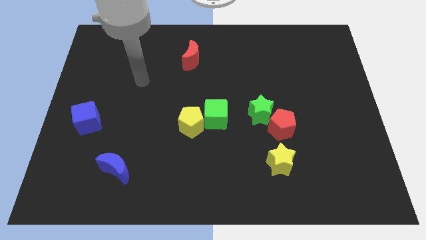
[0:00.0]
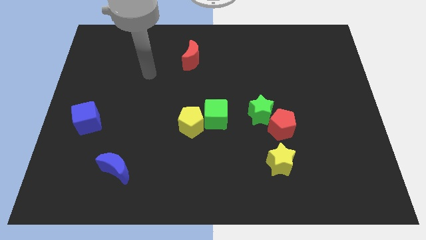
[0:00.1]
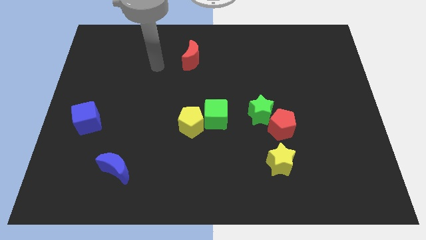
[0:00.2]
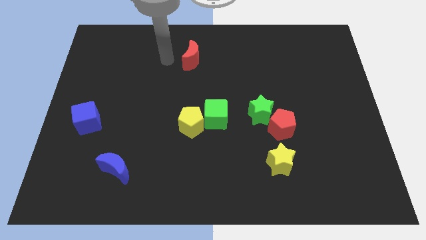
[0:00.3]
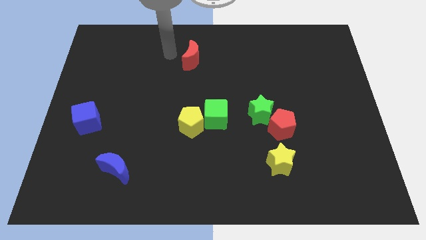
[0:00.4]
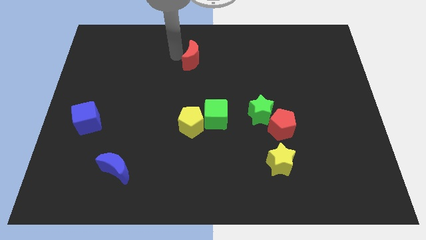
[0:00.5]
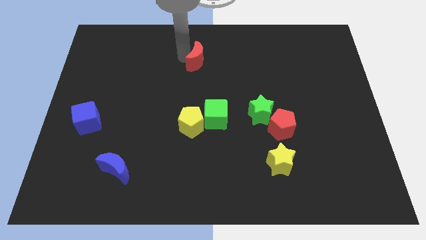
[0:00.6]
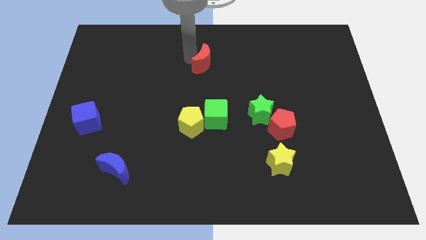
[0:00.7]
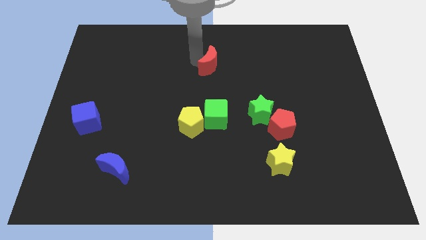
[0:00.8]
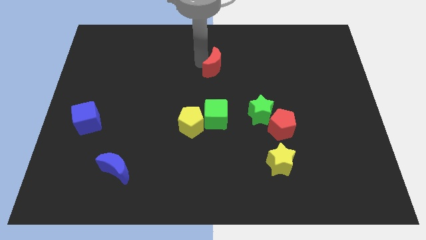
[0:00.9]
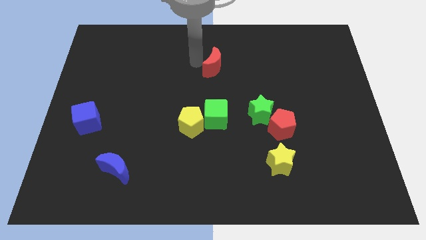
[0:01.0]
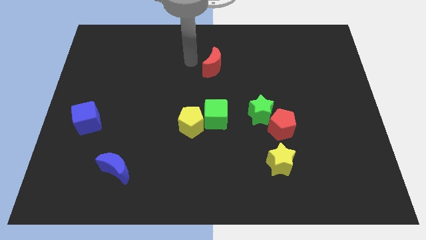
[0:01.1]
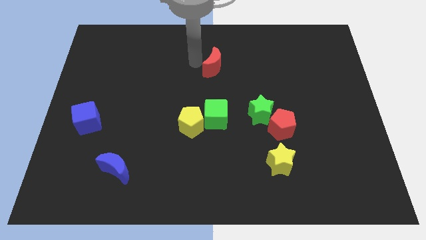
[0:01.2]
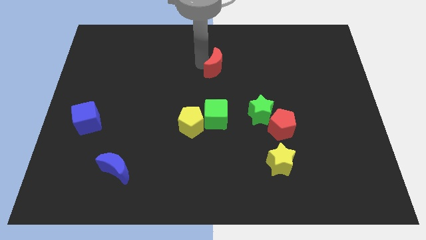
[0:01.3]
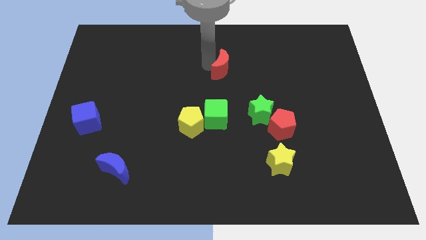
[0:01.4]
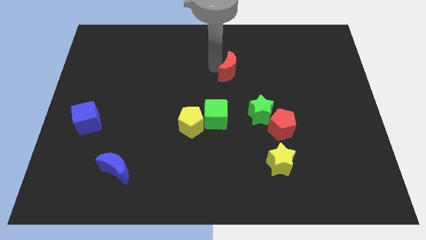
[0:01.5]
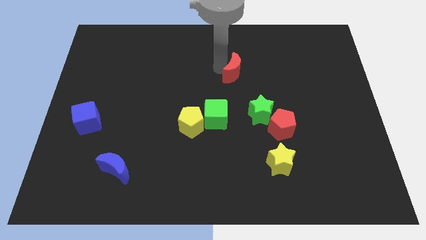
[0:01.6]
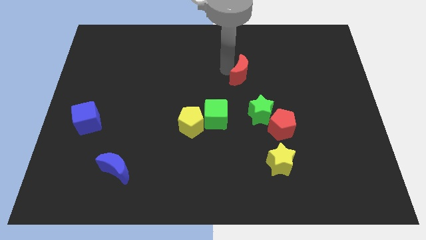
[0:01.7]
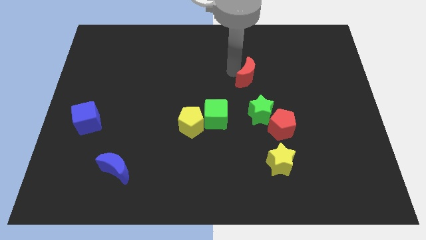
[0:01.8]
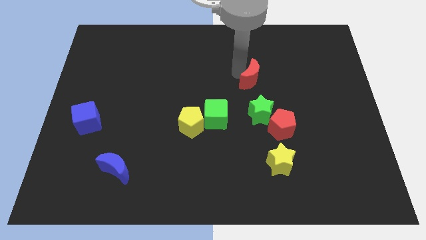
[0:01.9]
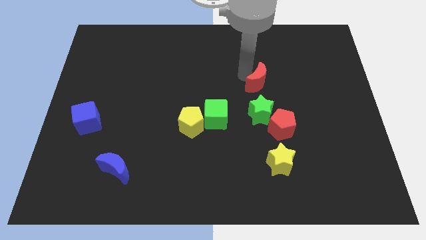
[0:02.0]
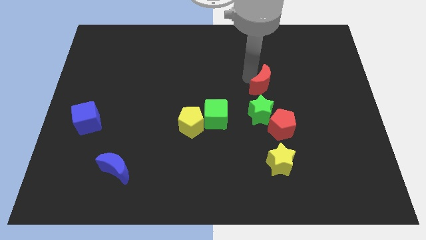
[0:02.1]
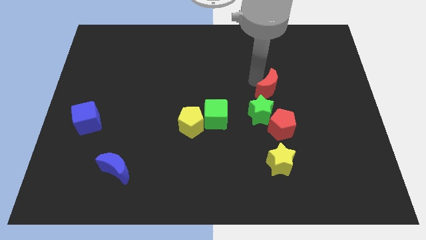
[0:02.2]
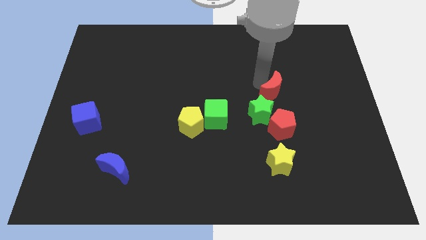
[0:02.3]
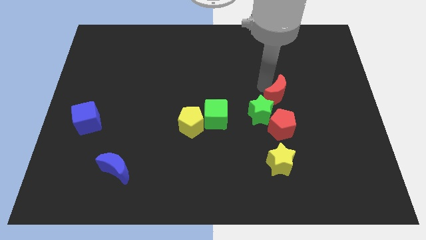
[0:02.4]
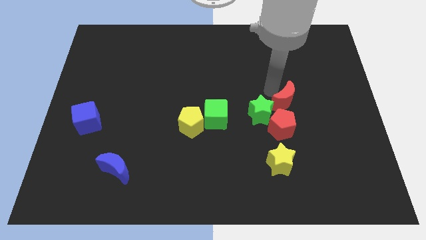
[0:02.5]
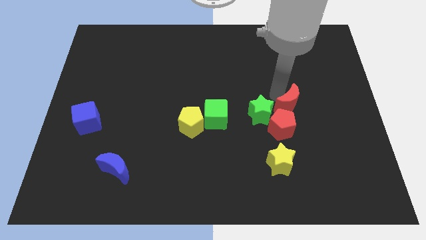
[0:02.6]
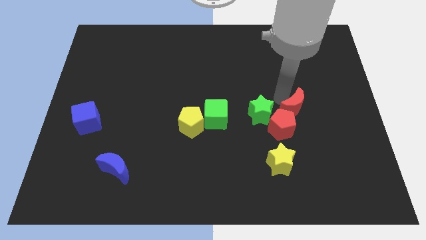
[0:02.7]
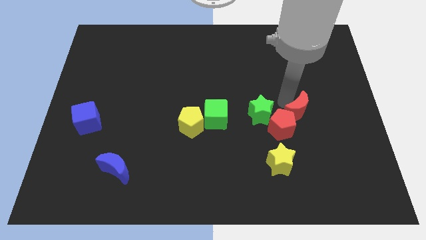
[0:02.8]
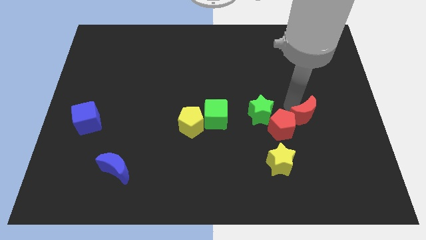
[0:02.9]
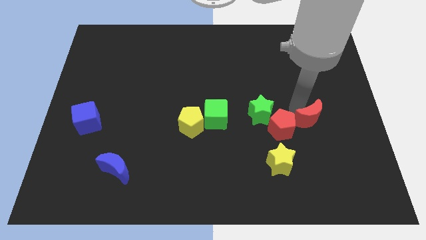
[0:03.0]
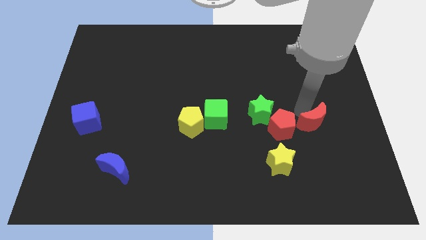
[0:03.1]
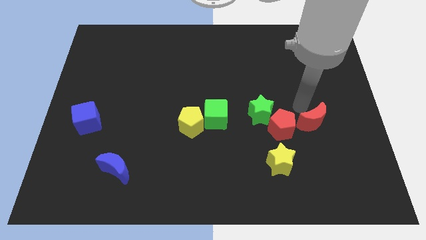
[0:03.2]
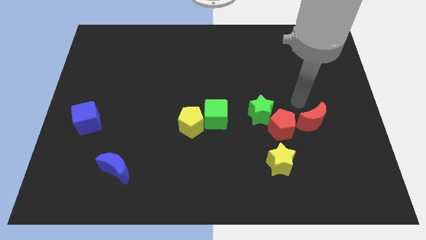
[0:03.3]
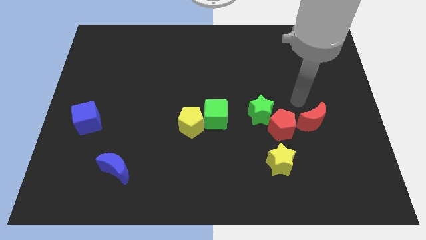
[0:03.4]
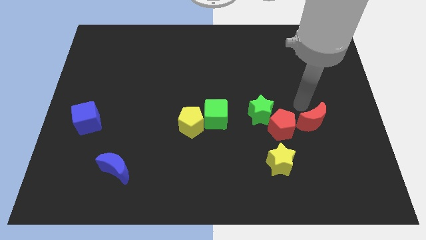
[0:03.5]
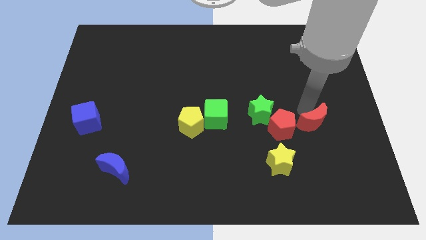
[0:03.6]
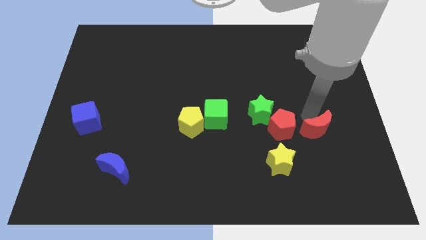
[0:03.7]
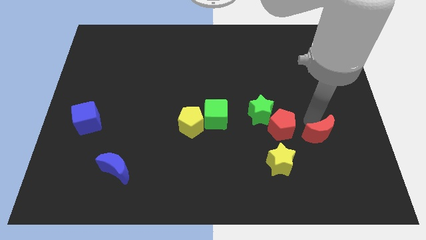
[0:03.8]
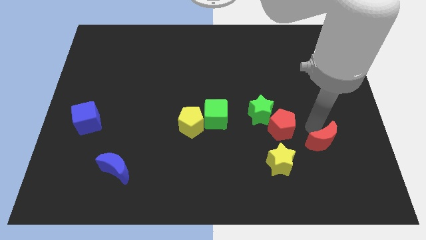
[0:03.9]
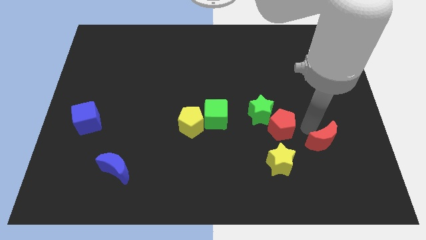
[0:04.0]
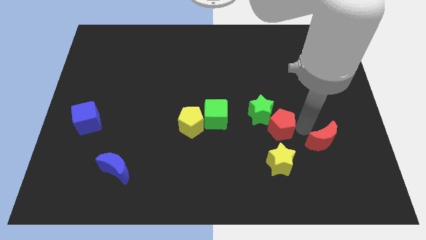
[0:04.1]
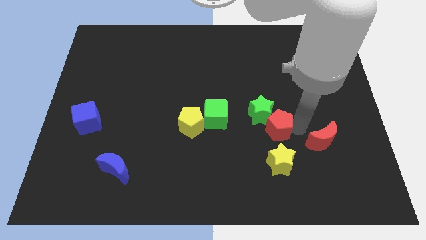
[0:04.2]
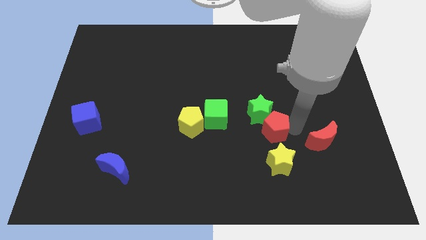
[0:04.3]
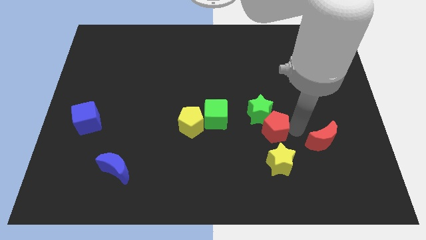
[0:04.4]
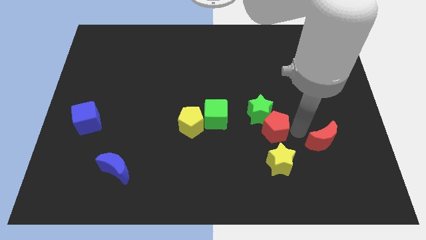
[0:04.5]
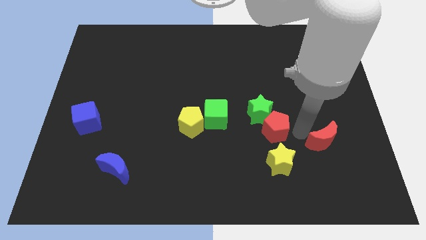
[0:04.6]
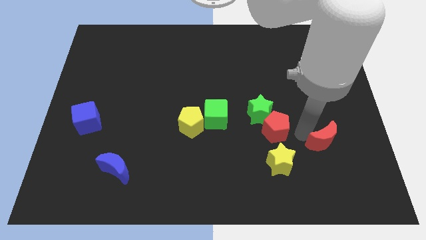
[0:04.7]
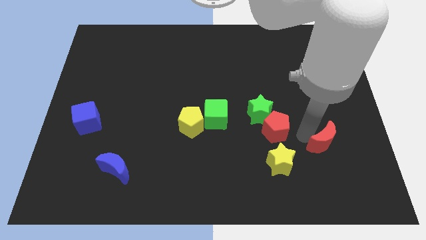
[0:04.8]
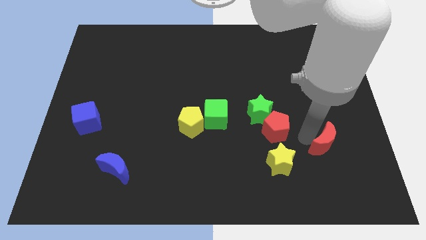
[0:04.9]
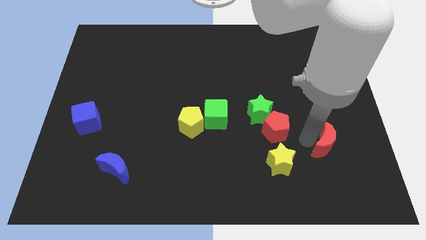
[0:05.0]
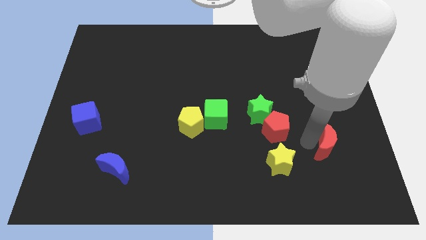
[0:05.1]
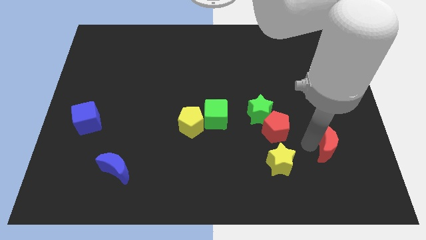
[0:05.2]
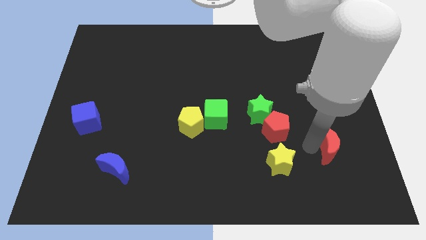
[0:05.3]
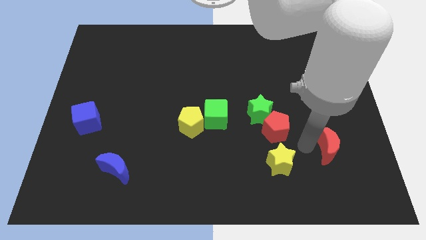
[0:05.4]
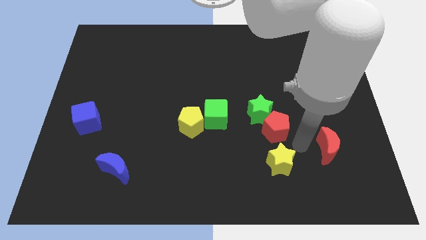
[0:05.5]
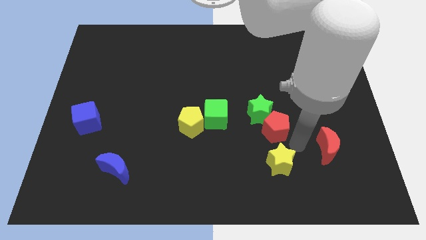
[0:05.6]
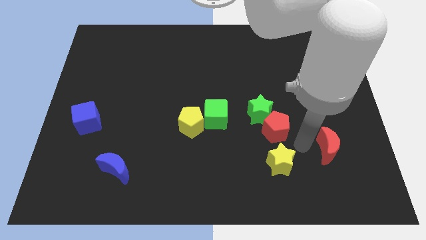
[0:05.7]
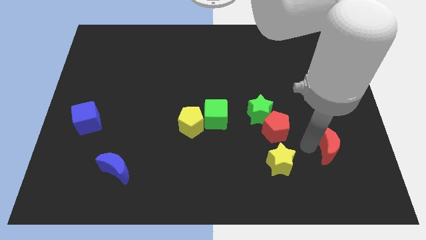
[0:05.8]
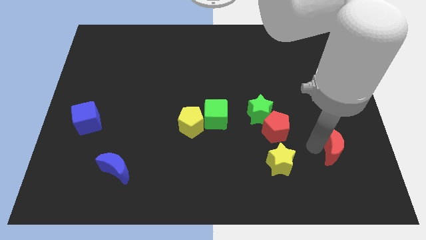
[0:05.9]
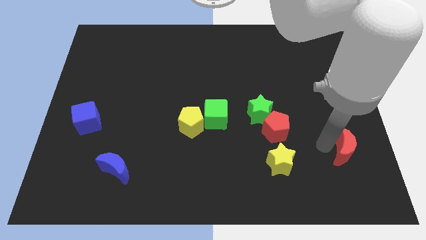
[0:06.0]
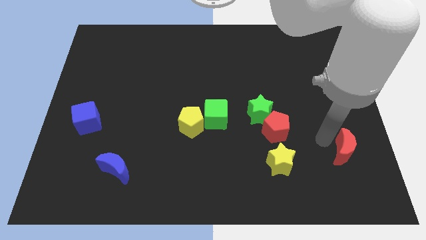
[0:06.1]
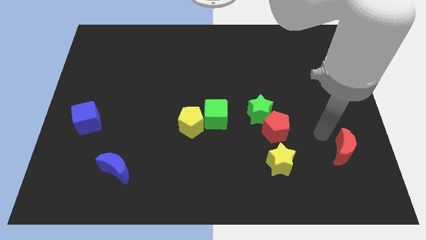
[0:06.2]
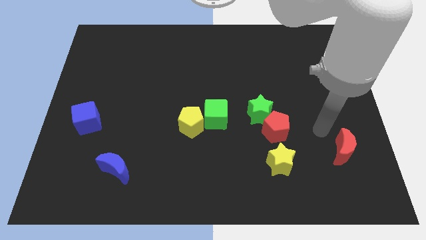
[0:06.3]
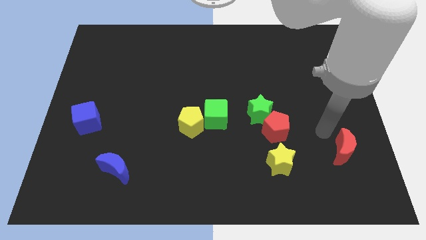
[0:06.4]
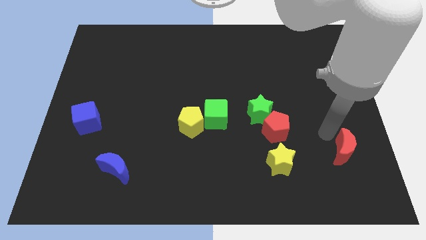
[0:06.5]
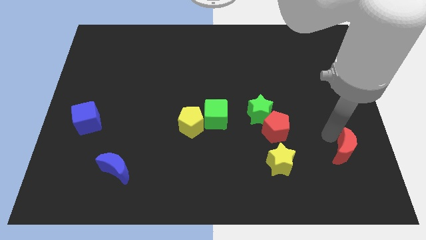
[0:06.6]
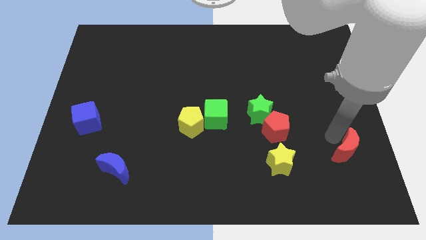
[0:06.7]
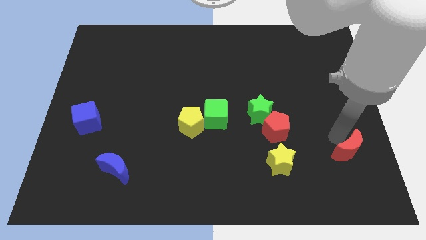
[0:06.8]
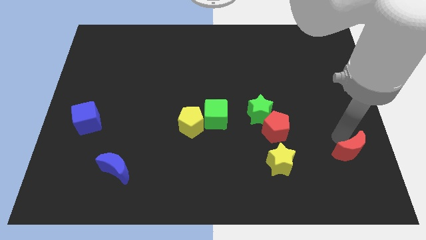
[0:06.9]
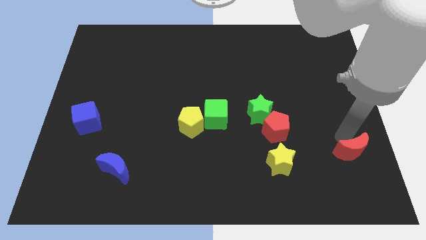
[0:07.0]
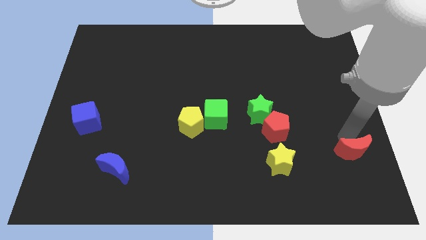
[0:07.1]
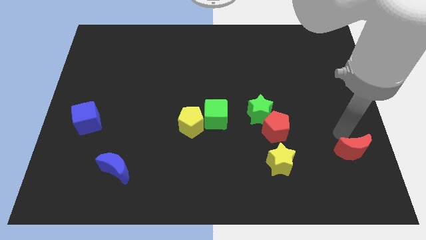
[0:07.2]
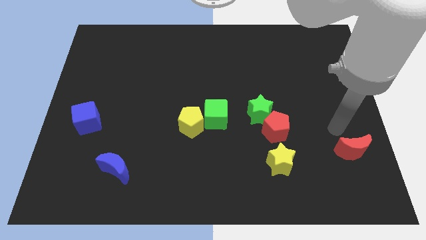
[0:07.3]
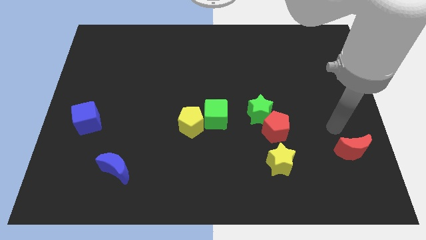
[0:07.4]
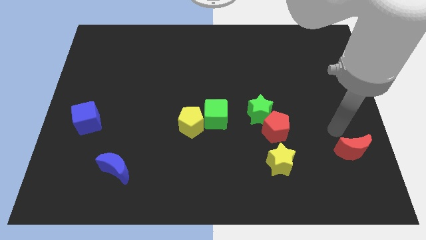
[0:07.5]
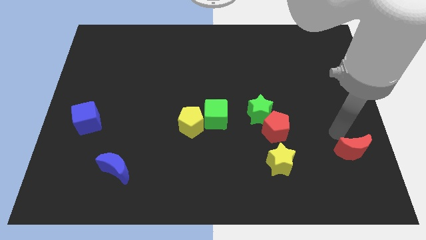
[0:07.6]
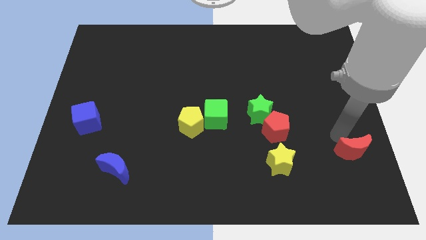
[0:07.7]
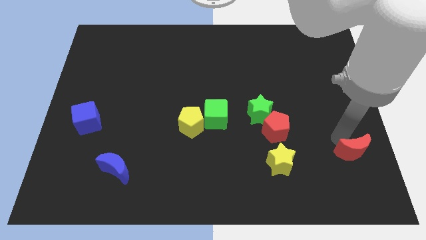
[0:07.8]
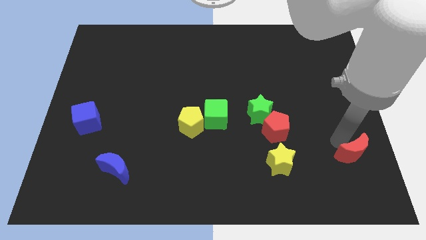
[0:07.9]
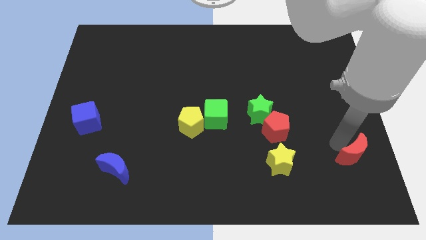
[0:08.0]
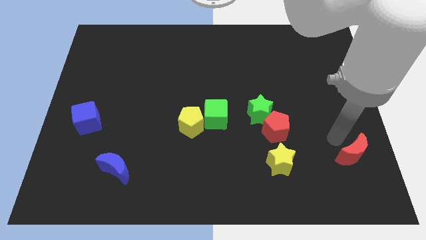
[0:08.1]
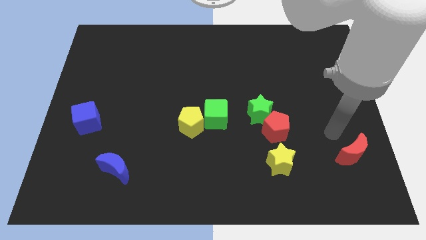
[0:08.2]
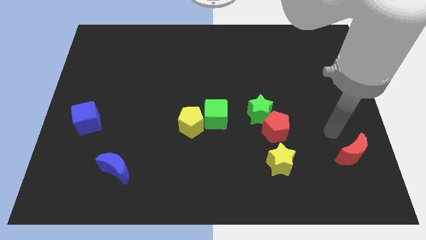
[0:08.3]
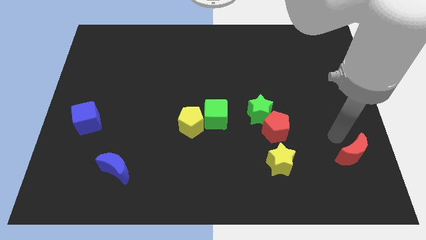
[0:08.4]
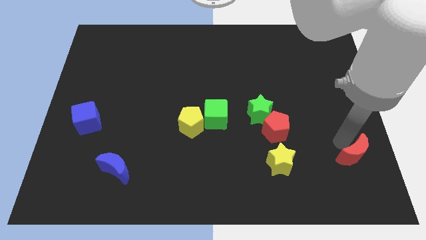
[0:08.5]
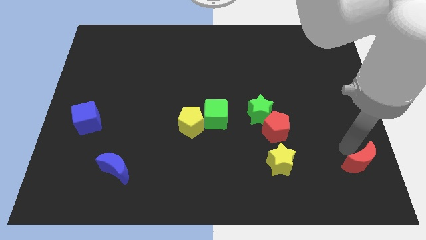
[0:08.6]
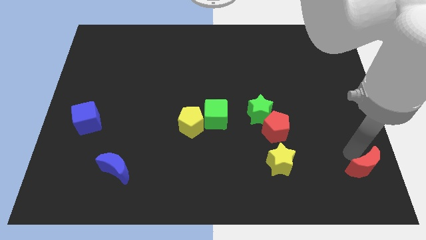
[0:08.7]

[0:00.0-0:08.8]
move the red moon to the bottom right of the board
